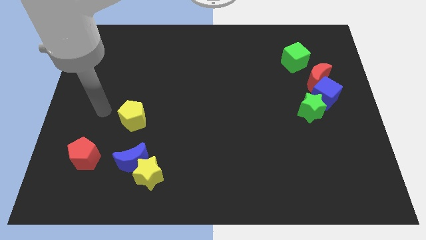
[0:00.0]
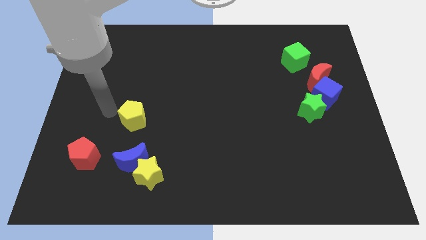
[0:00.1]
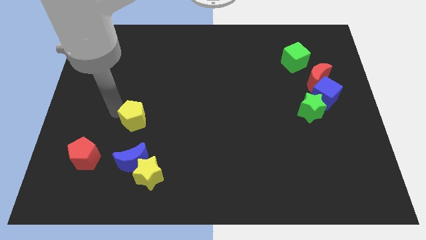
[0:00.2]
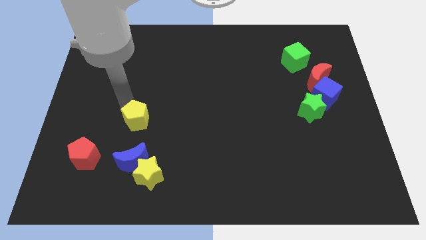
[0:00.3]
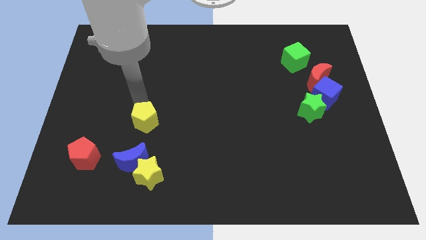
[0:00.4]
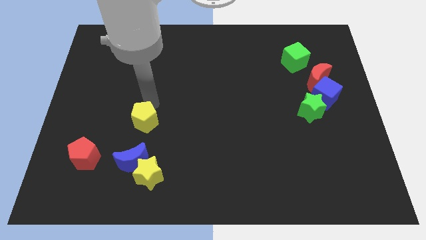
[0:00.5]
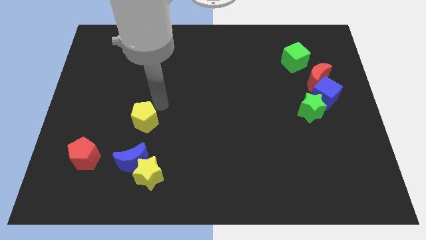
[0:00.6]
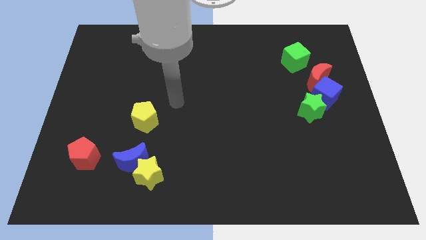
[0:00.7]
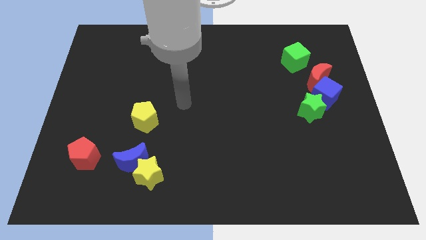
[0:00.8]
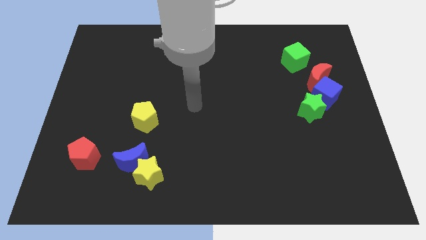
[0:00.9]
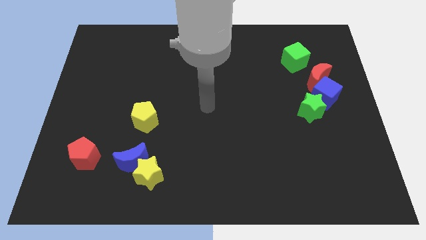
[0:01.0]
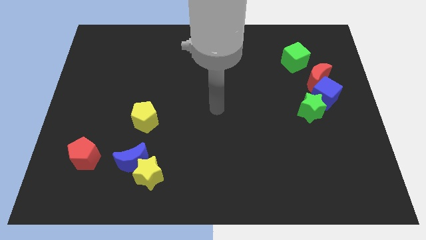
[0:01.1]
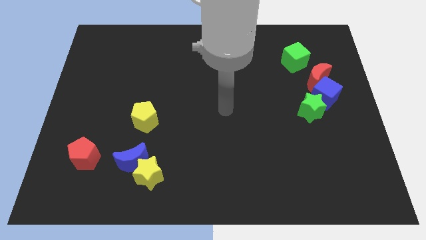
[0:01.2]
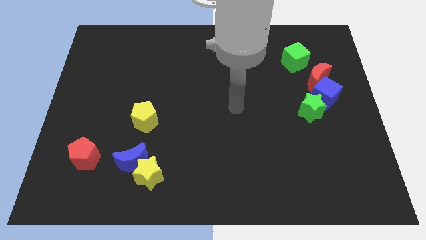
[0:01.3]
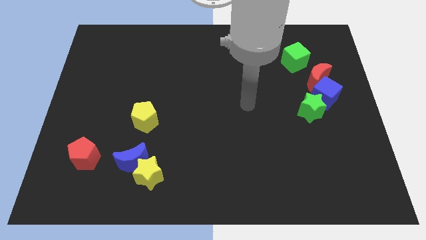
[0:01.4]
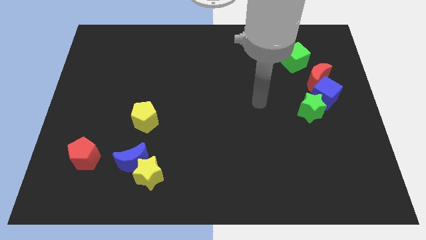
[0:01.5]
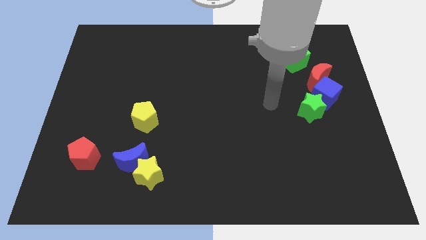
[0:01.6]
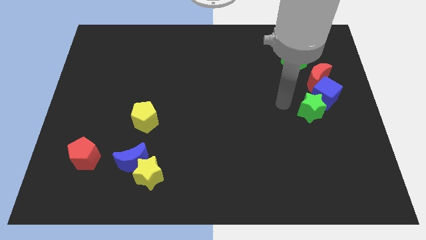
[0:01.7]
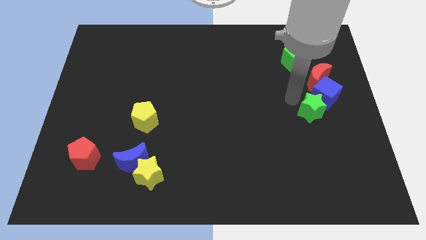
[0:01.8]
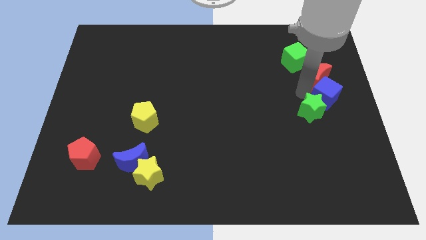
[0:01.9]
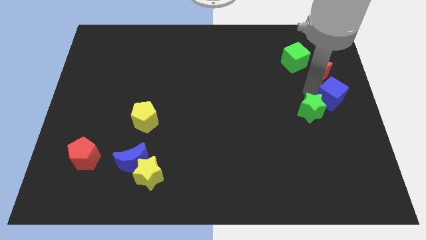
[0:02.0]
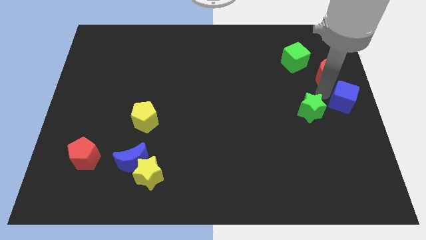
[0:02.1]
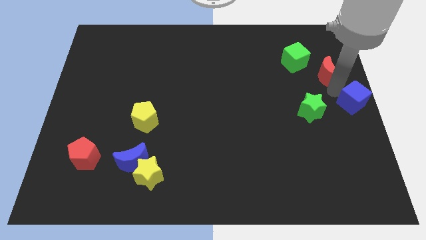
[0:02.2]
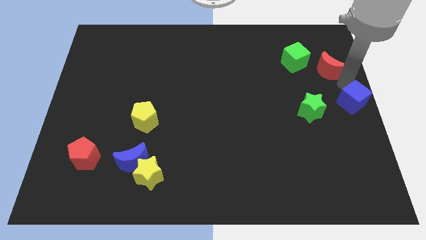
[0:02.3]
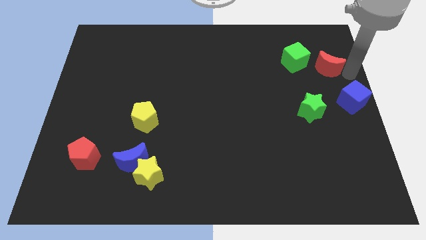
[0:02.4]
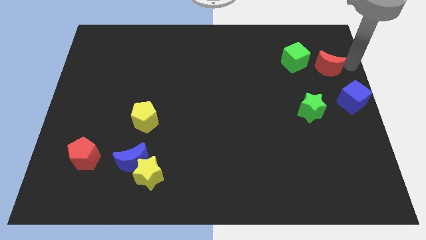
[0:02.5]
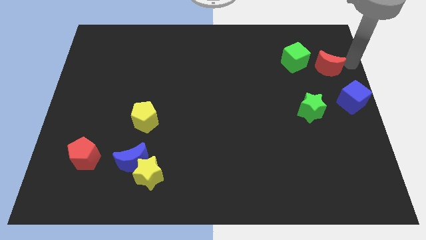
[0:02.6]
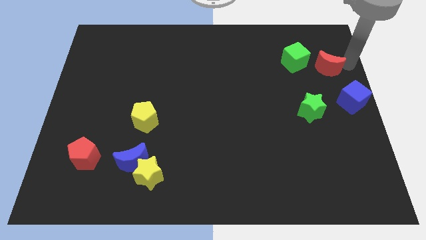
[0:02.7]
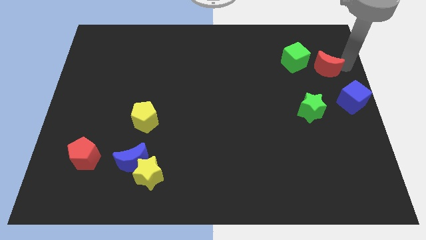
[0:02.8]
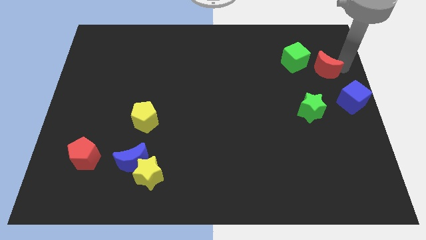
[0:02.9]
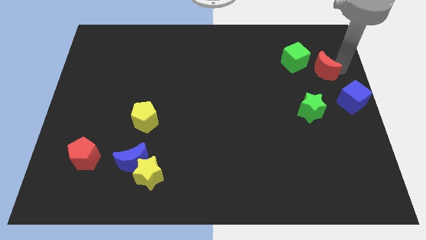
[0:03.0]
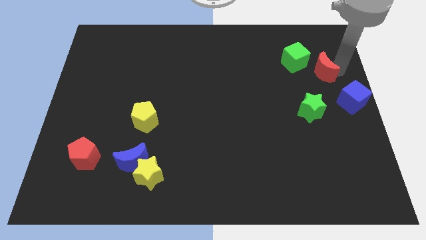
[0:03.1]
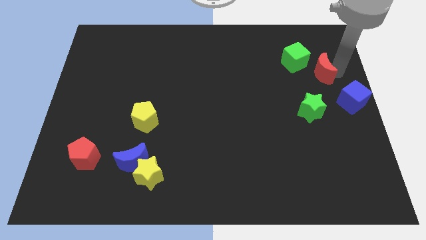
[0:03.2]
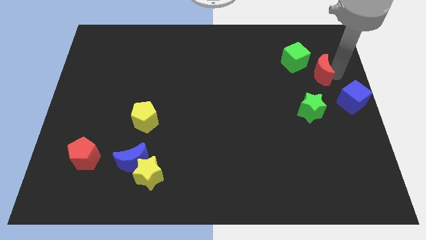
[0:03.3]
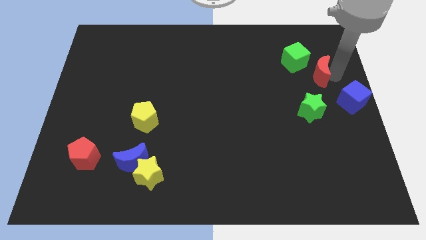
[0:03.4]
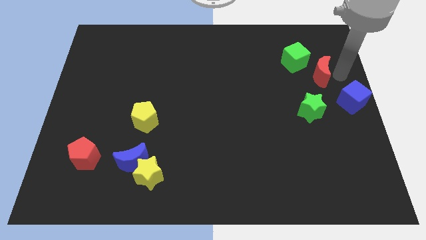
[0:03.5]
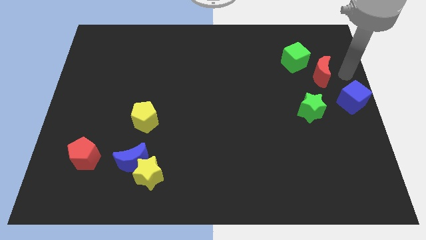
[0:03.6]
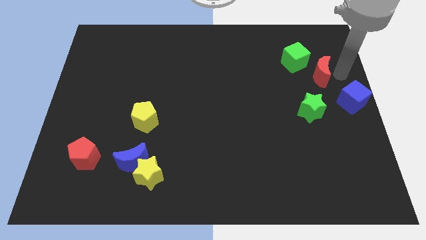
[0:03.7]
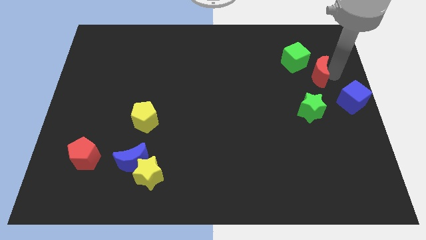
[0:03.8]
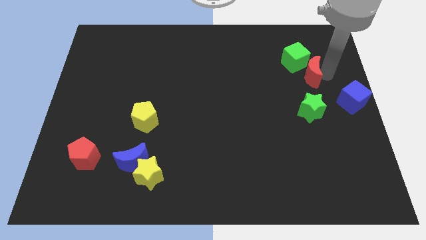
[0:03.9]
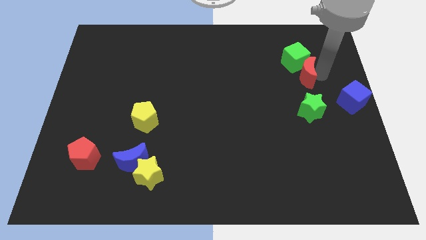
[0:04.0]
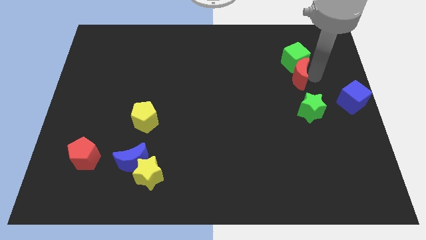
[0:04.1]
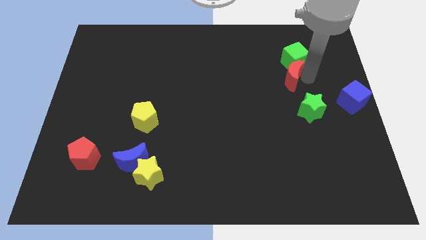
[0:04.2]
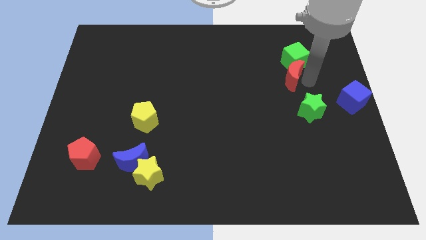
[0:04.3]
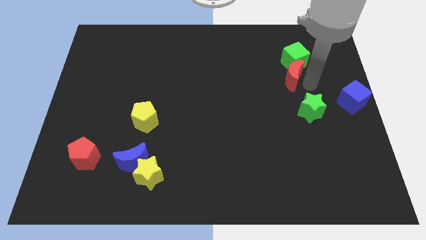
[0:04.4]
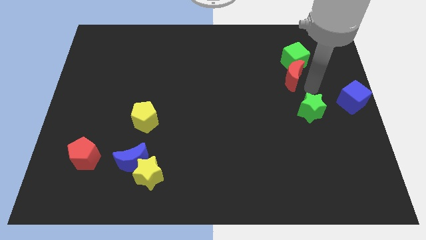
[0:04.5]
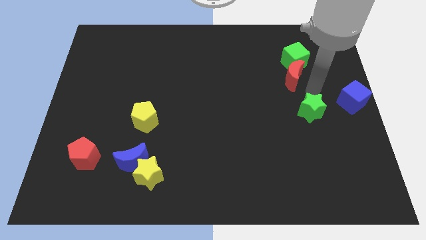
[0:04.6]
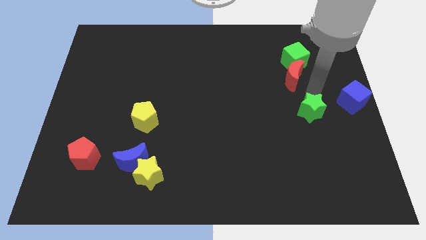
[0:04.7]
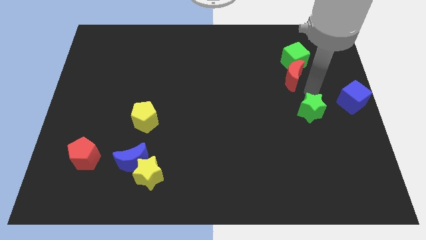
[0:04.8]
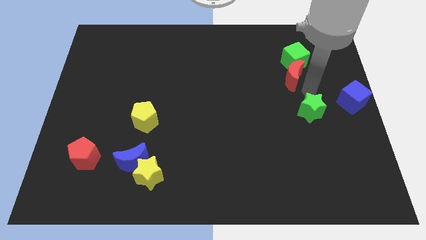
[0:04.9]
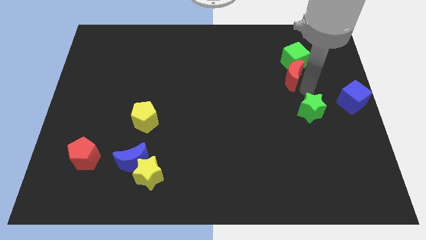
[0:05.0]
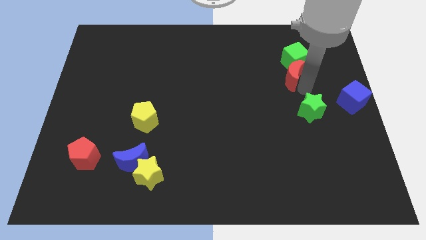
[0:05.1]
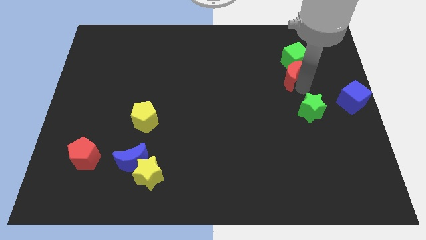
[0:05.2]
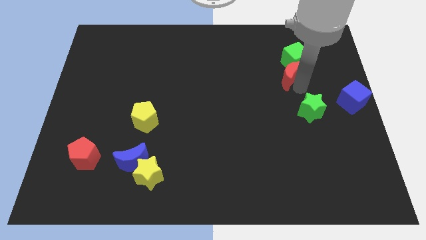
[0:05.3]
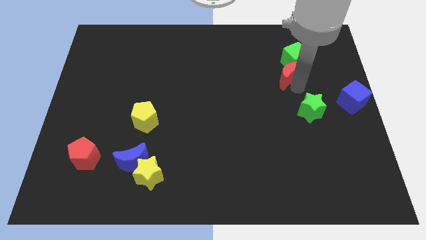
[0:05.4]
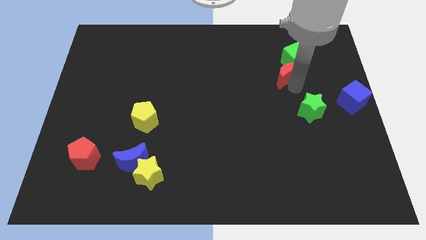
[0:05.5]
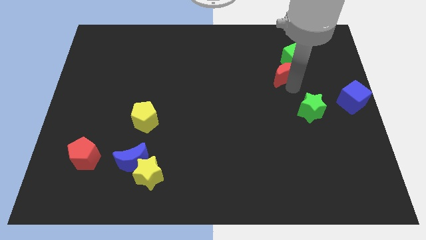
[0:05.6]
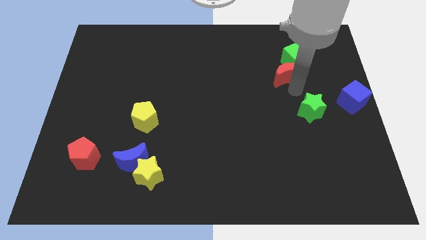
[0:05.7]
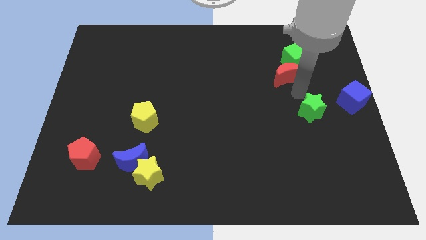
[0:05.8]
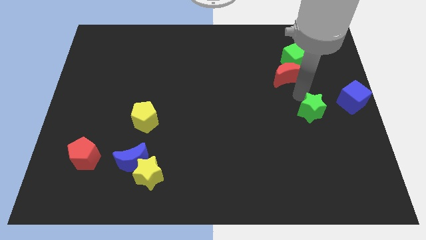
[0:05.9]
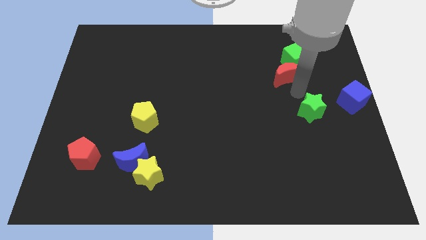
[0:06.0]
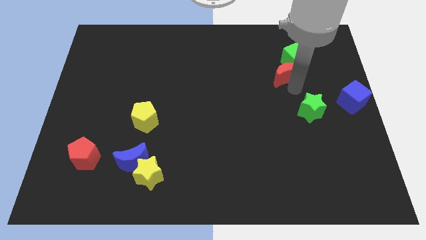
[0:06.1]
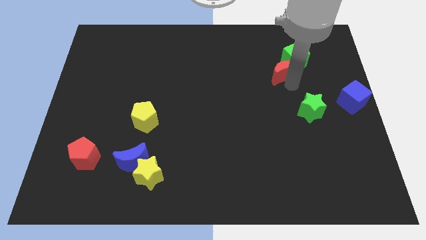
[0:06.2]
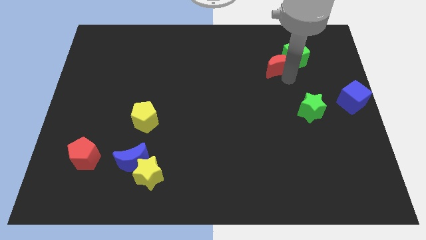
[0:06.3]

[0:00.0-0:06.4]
move the red moon to the left of the green cube

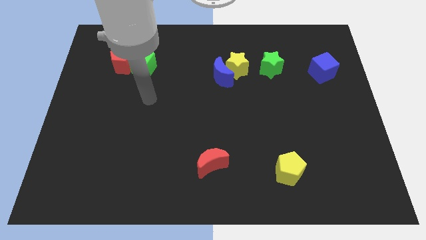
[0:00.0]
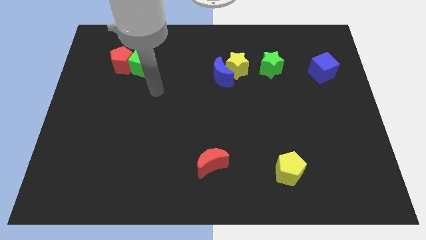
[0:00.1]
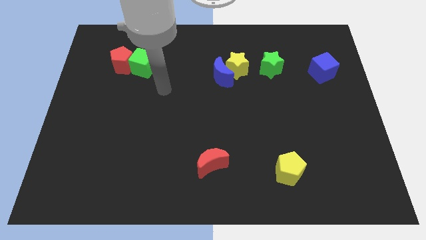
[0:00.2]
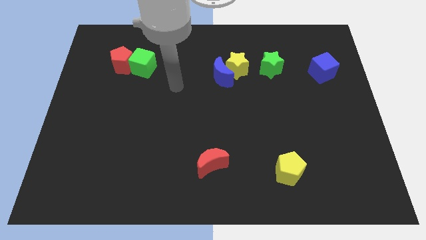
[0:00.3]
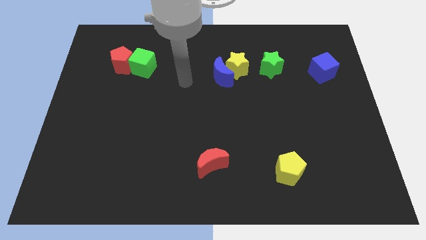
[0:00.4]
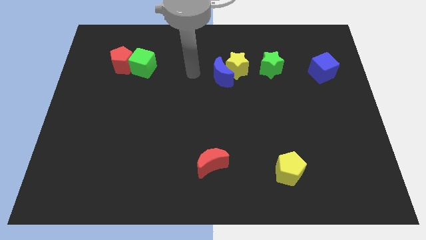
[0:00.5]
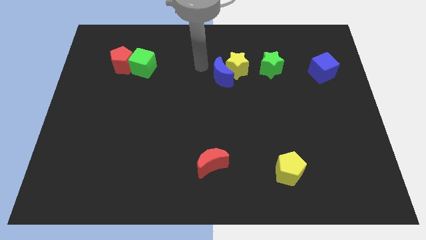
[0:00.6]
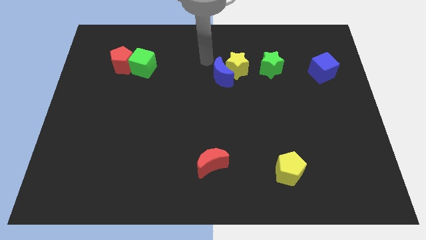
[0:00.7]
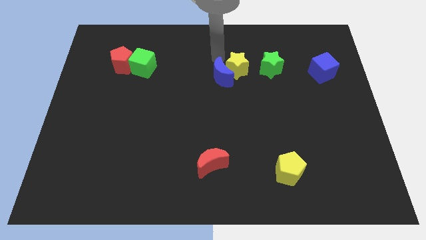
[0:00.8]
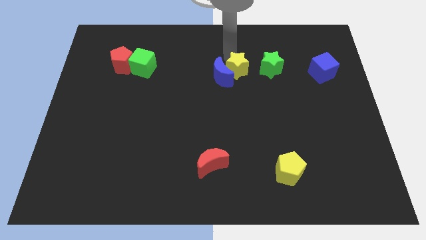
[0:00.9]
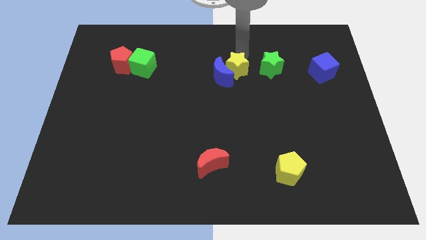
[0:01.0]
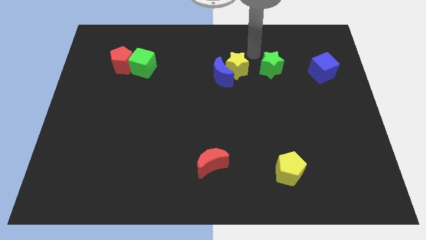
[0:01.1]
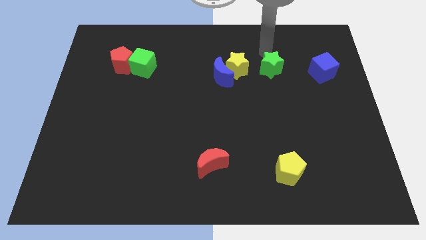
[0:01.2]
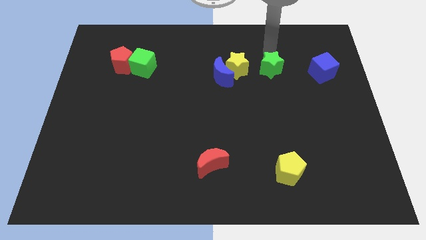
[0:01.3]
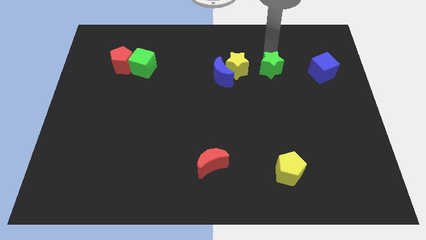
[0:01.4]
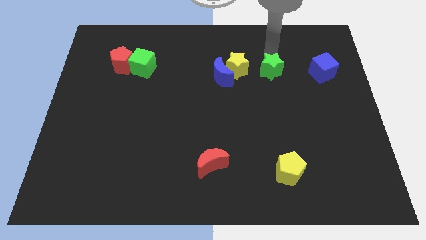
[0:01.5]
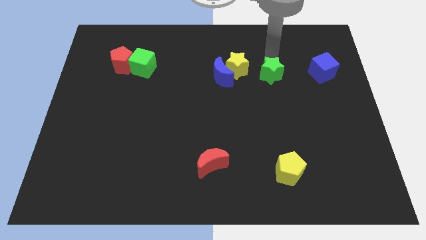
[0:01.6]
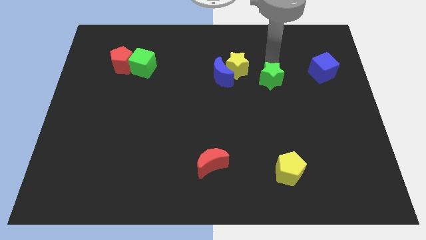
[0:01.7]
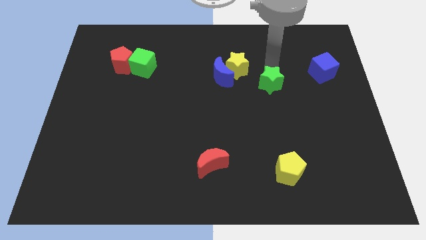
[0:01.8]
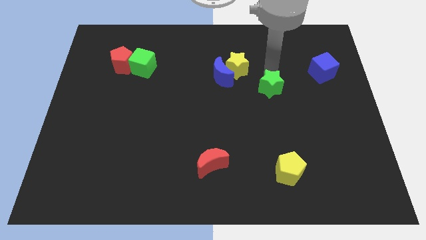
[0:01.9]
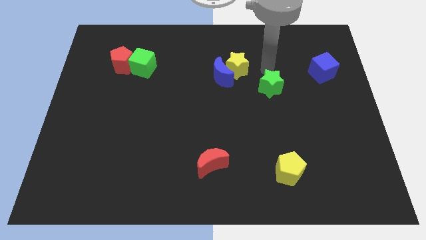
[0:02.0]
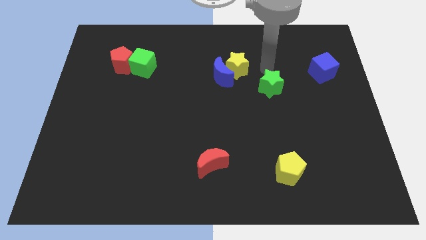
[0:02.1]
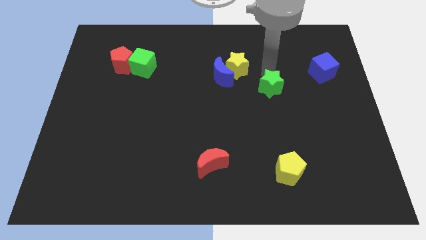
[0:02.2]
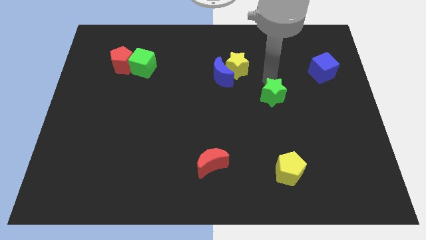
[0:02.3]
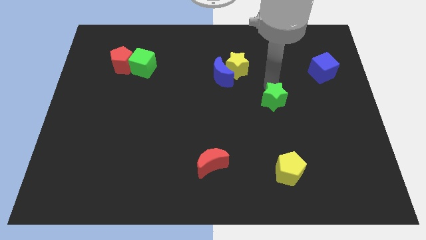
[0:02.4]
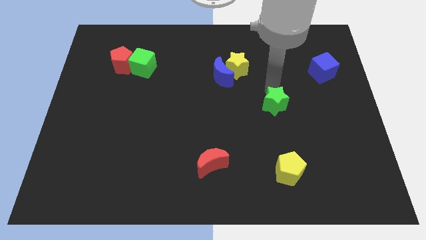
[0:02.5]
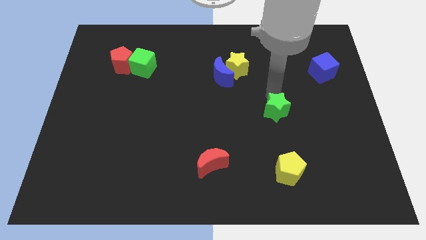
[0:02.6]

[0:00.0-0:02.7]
slide the green star above the yellow pentagon
